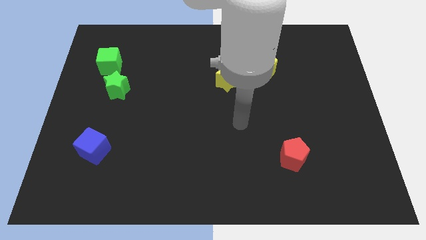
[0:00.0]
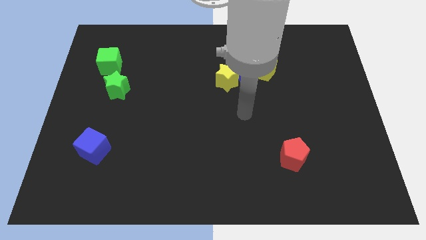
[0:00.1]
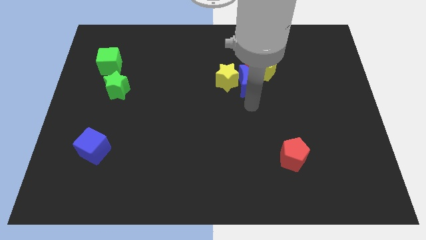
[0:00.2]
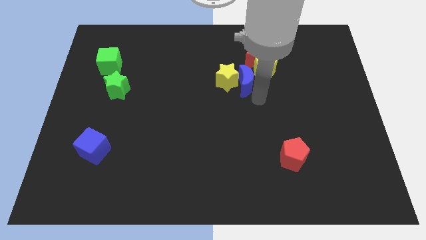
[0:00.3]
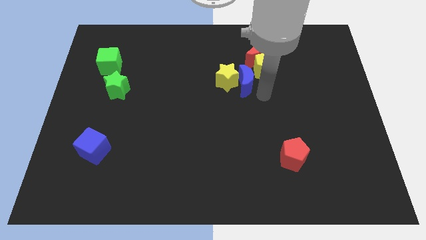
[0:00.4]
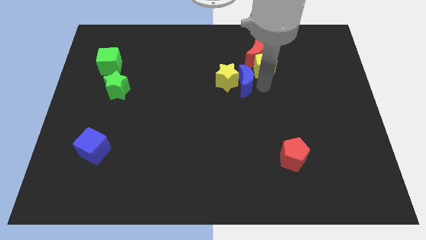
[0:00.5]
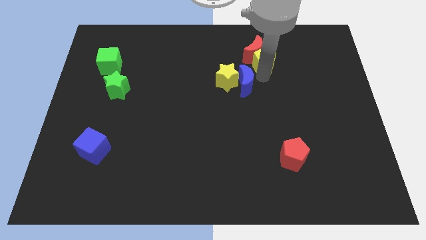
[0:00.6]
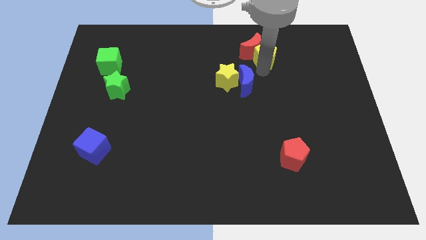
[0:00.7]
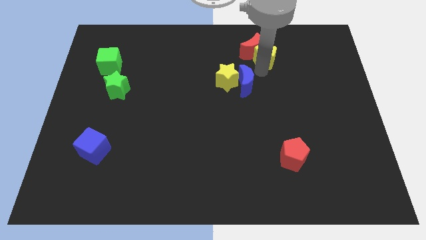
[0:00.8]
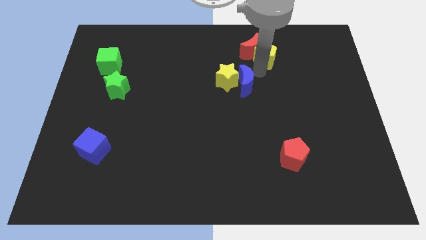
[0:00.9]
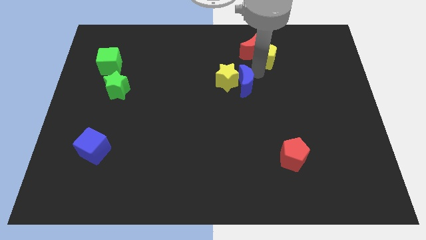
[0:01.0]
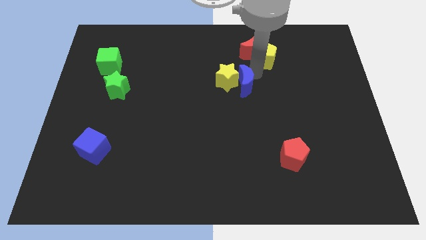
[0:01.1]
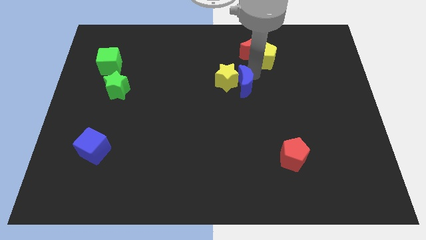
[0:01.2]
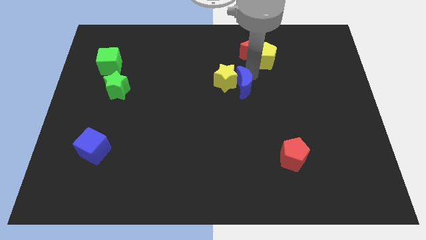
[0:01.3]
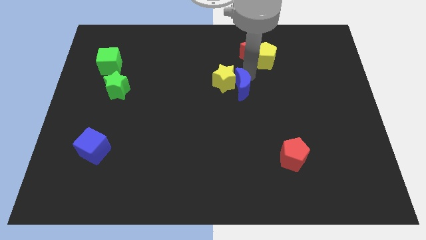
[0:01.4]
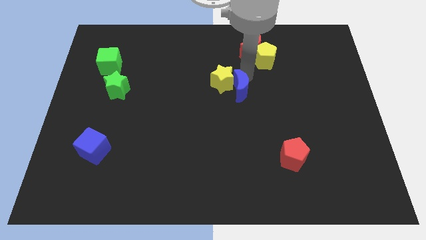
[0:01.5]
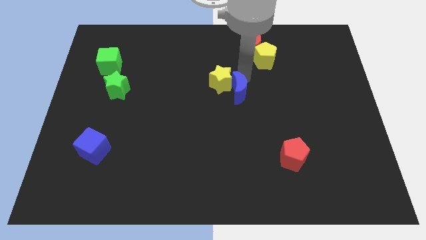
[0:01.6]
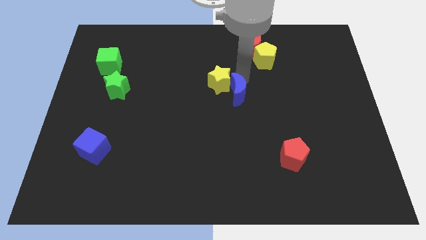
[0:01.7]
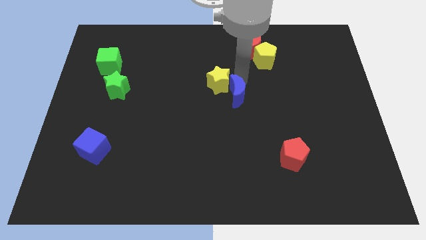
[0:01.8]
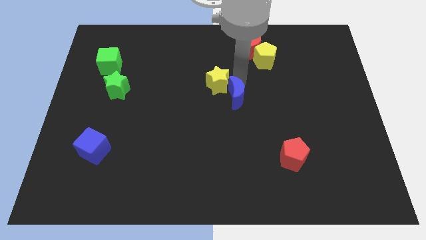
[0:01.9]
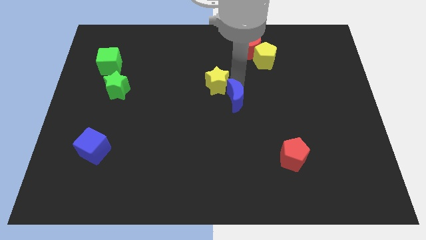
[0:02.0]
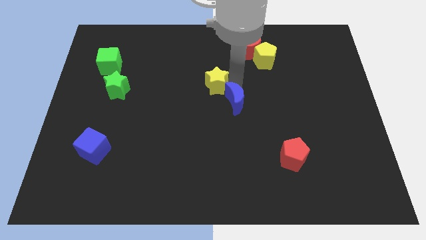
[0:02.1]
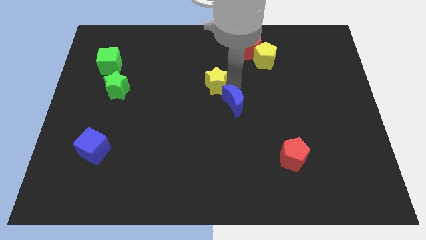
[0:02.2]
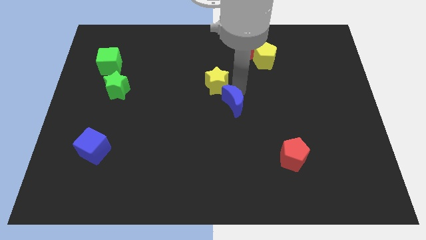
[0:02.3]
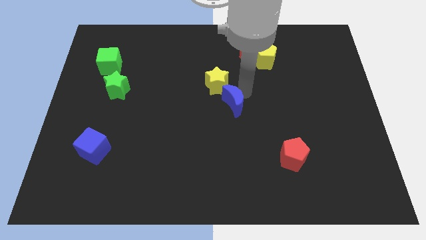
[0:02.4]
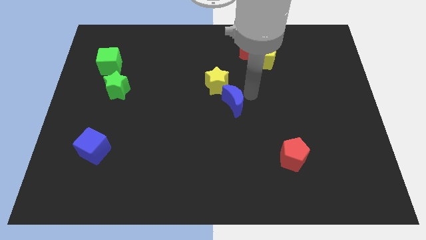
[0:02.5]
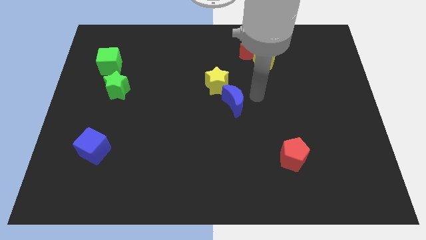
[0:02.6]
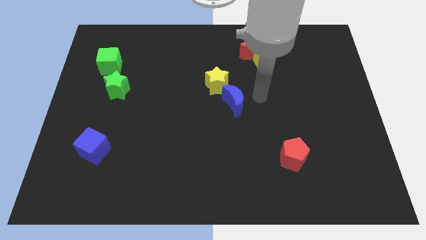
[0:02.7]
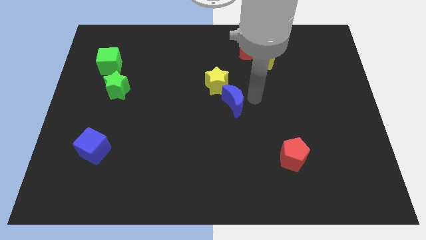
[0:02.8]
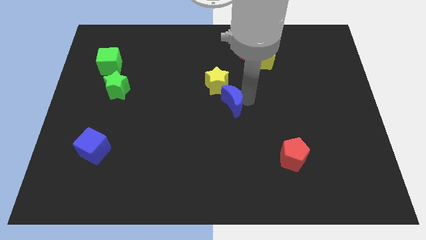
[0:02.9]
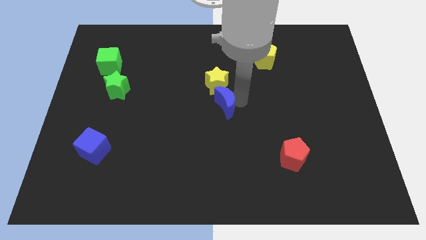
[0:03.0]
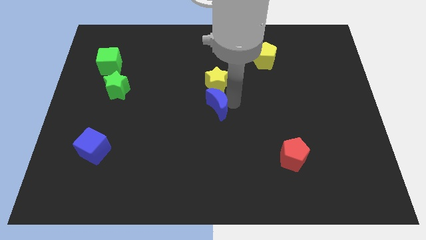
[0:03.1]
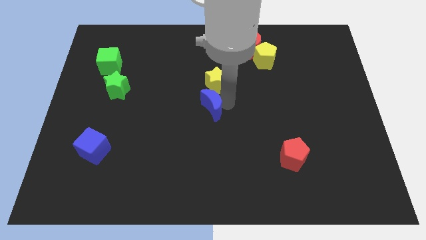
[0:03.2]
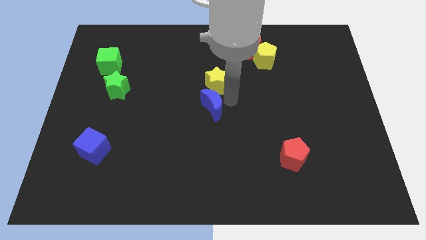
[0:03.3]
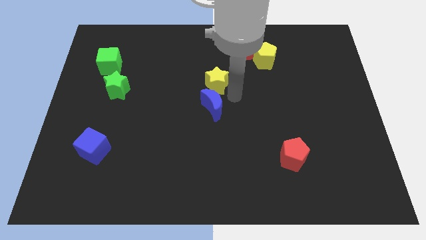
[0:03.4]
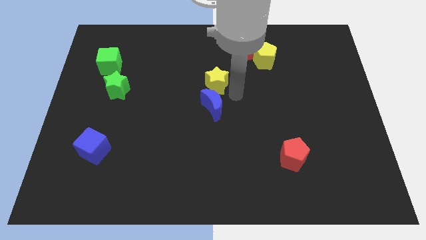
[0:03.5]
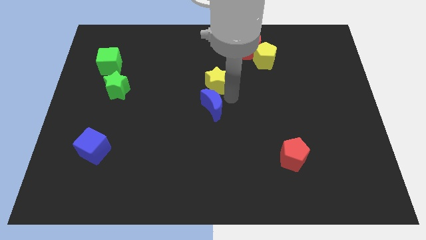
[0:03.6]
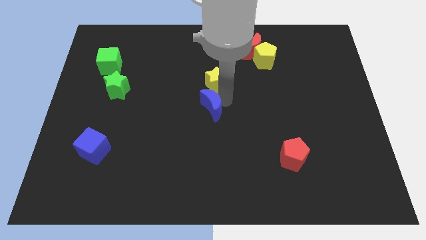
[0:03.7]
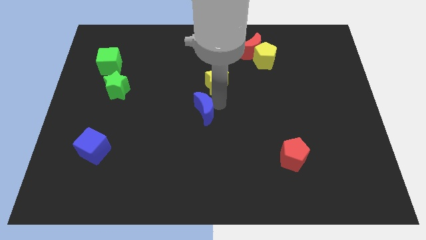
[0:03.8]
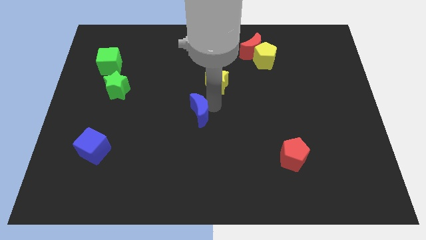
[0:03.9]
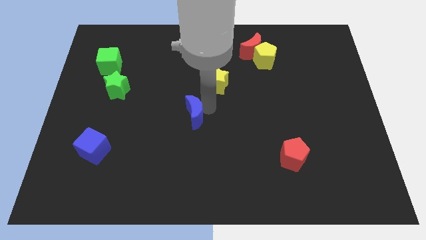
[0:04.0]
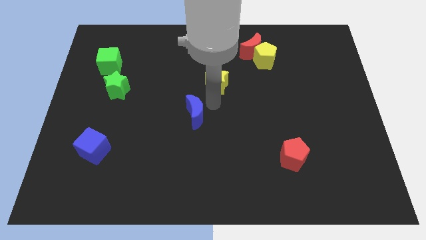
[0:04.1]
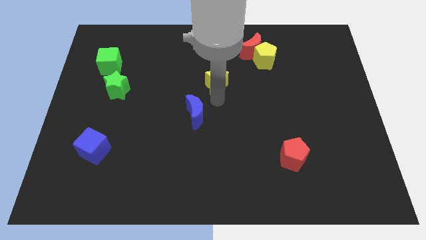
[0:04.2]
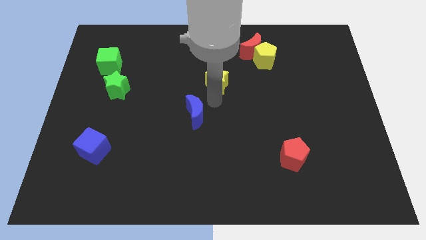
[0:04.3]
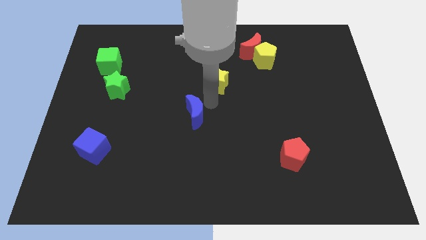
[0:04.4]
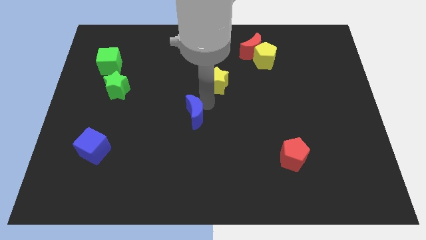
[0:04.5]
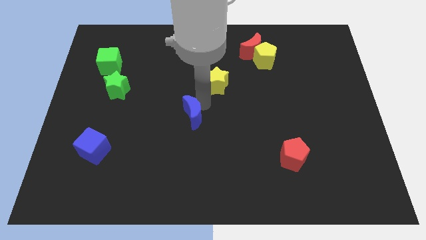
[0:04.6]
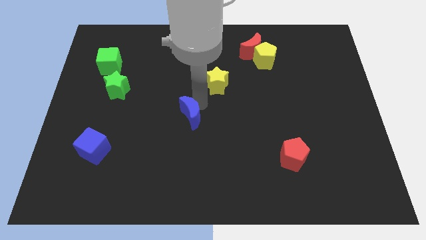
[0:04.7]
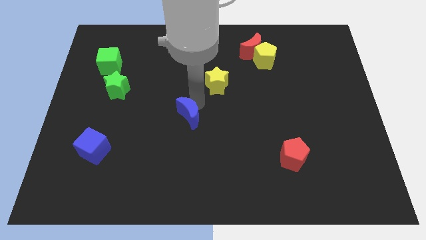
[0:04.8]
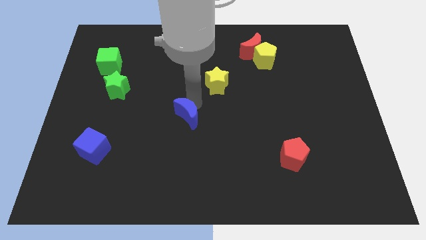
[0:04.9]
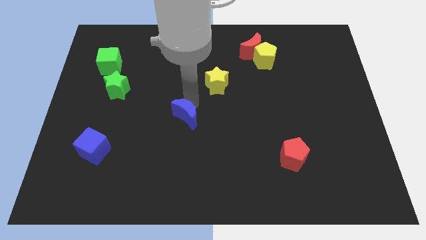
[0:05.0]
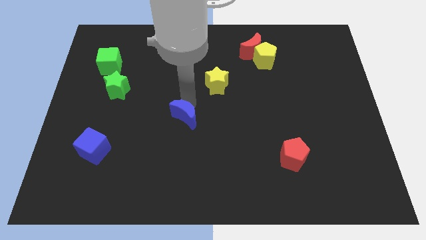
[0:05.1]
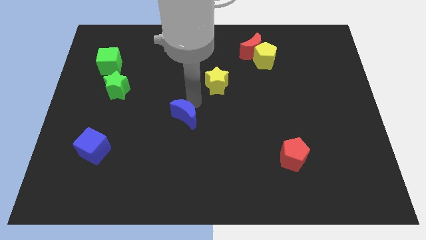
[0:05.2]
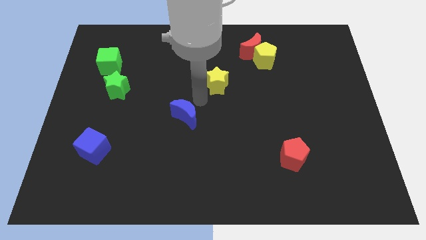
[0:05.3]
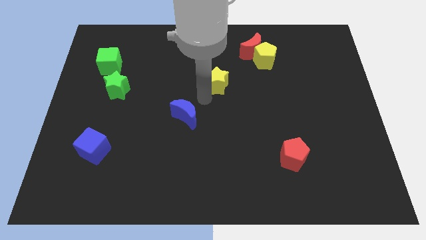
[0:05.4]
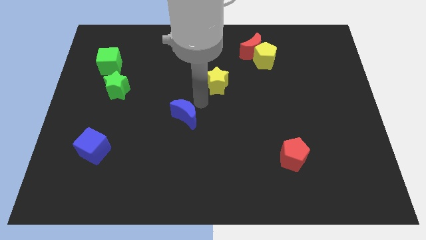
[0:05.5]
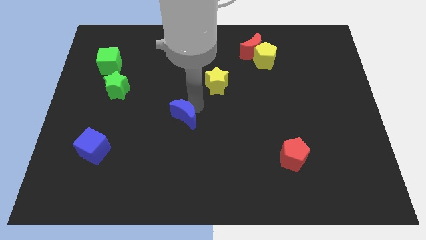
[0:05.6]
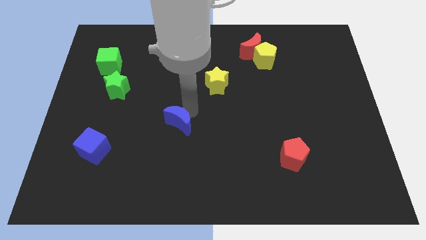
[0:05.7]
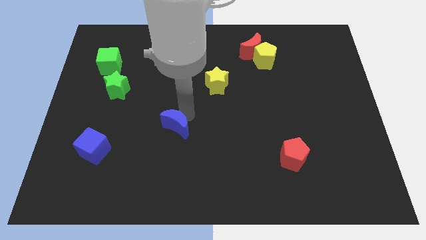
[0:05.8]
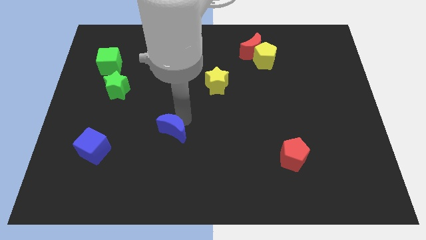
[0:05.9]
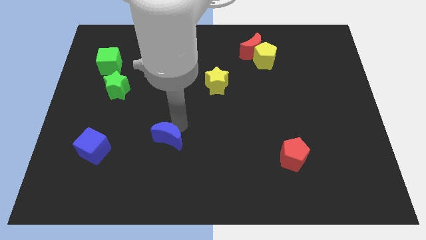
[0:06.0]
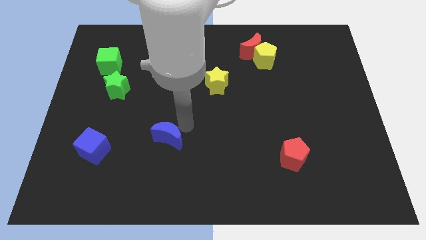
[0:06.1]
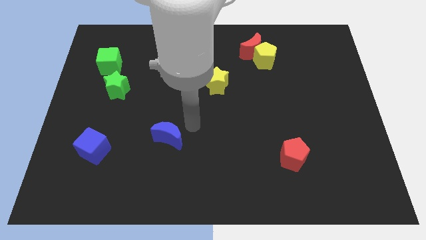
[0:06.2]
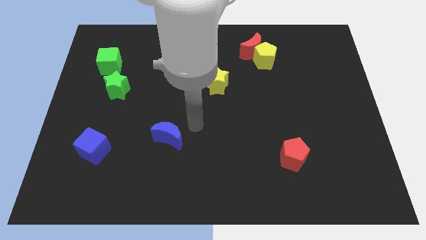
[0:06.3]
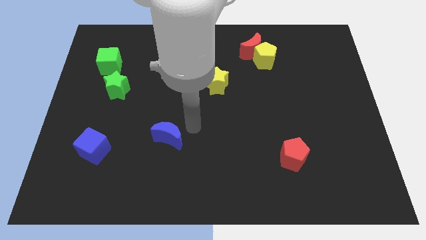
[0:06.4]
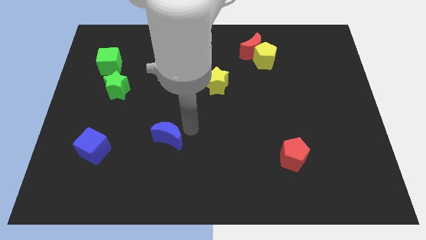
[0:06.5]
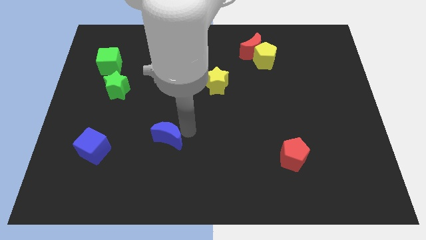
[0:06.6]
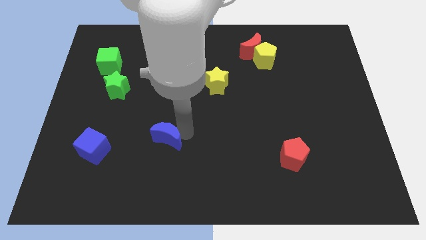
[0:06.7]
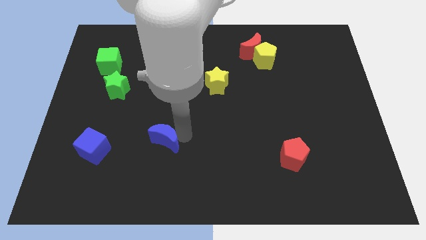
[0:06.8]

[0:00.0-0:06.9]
put the blue moon right of the blue cube
